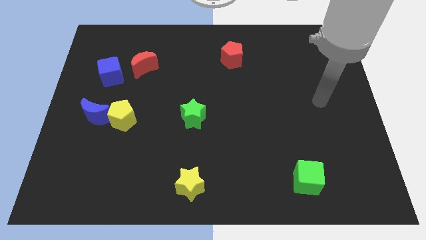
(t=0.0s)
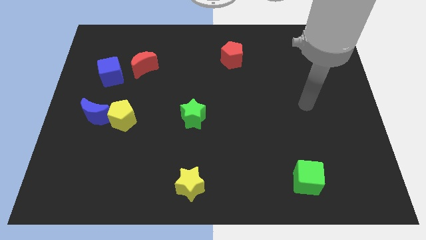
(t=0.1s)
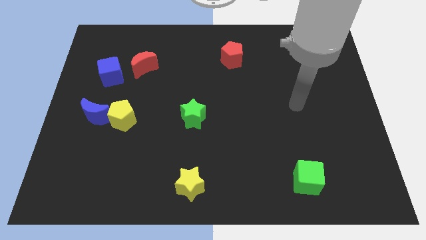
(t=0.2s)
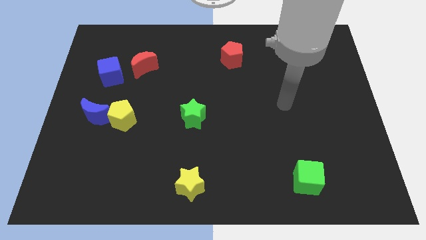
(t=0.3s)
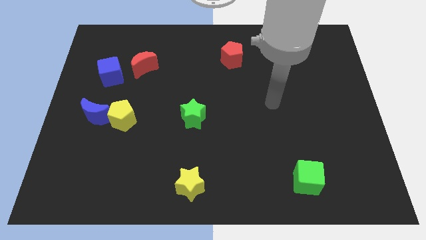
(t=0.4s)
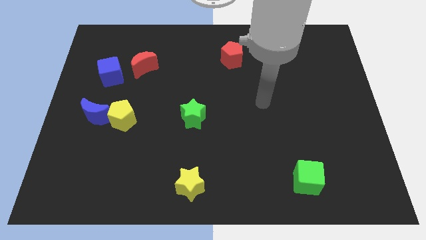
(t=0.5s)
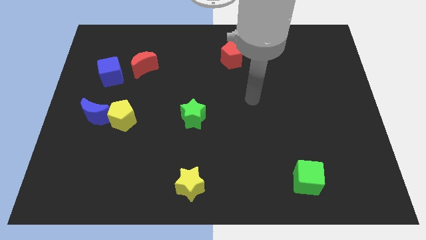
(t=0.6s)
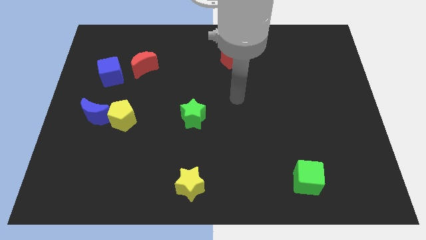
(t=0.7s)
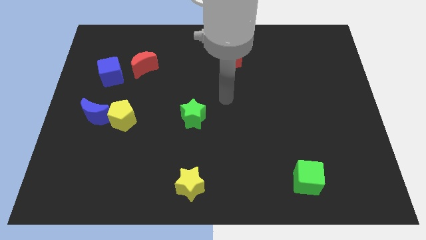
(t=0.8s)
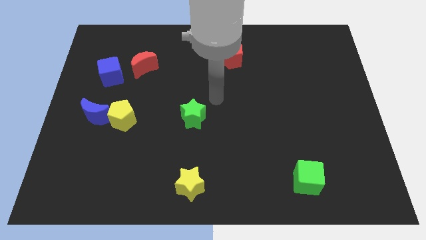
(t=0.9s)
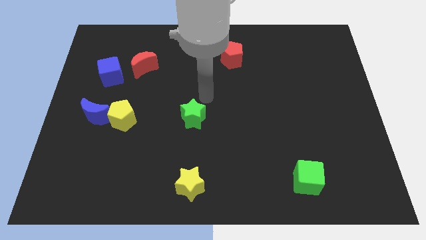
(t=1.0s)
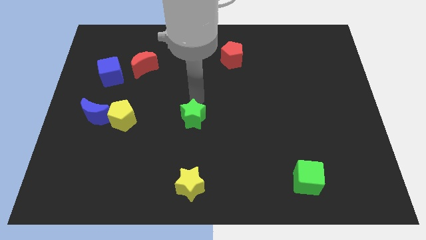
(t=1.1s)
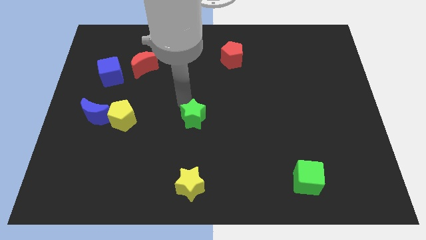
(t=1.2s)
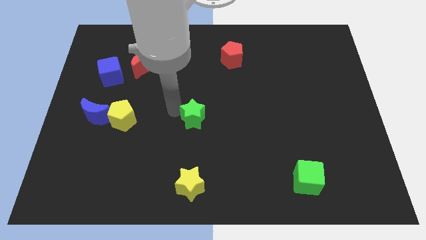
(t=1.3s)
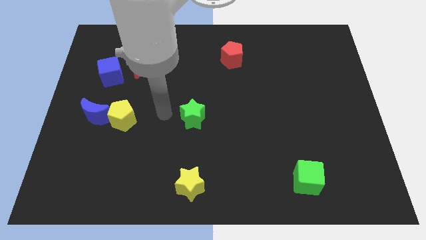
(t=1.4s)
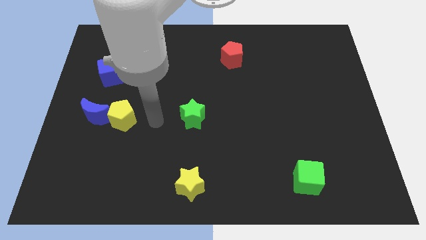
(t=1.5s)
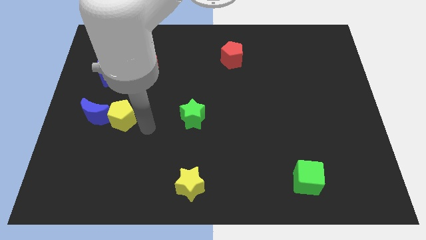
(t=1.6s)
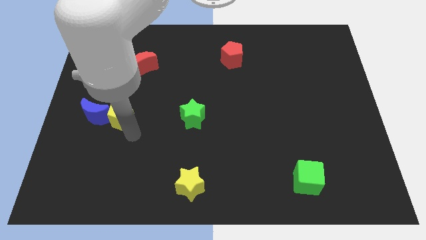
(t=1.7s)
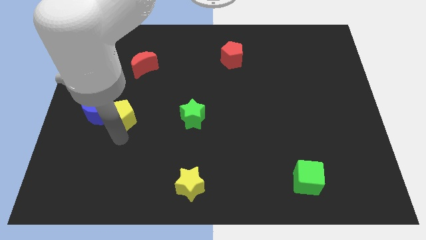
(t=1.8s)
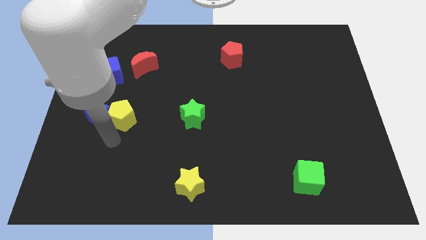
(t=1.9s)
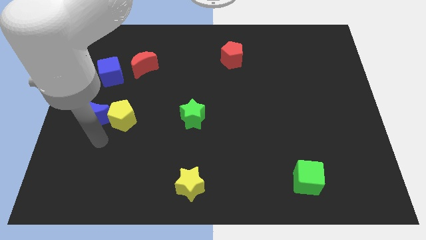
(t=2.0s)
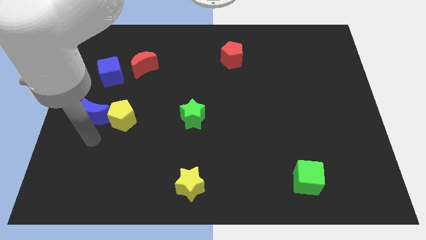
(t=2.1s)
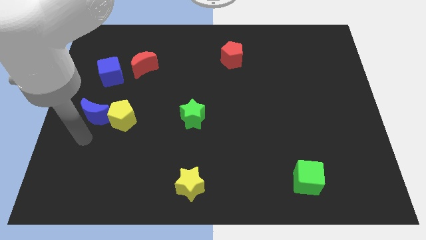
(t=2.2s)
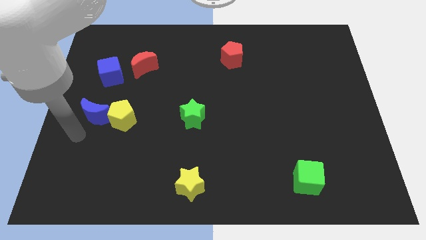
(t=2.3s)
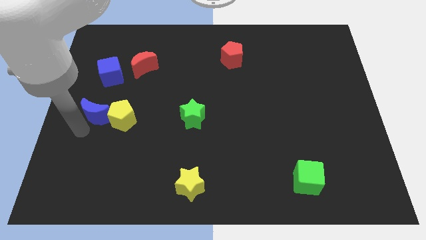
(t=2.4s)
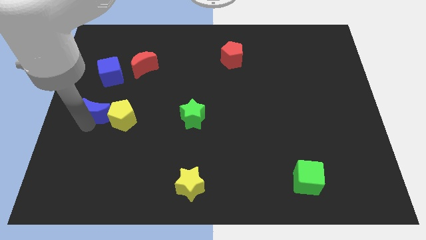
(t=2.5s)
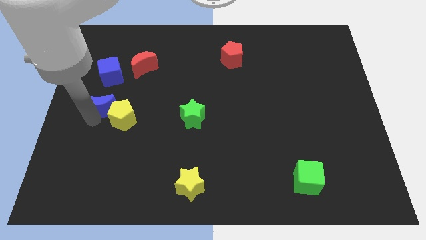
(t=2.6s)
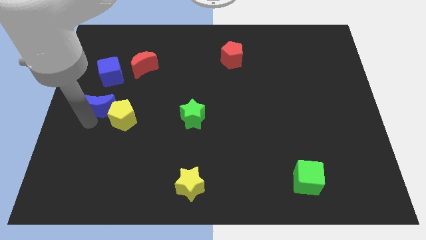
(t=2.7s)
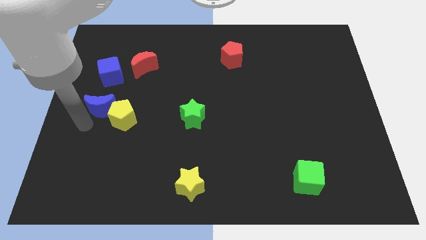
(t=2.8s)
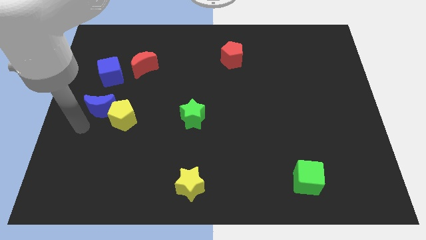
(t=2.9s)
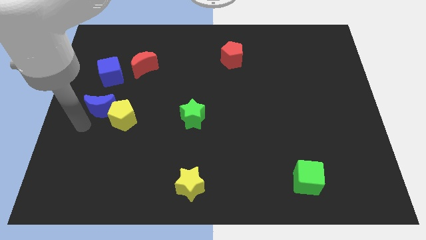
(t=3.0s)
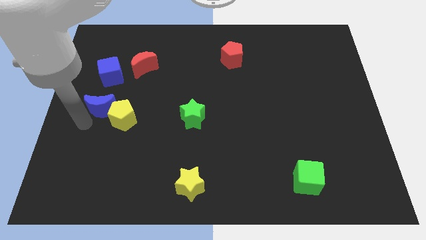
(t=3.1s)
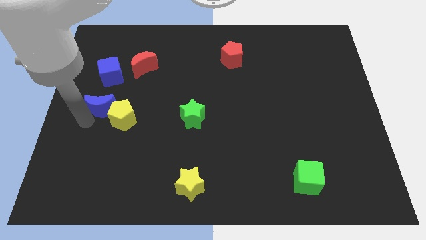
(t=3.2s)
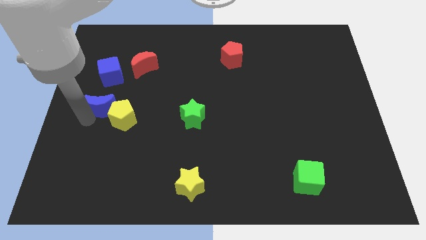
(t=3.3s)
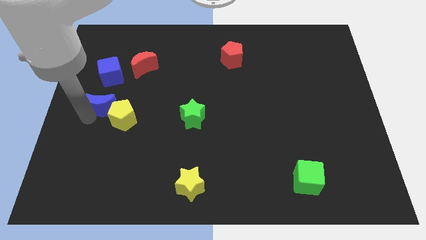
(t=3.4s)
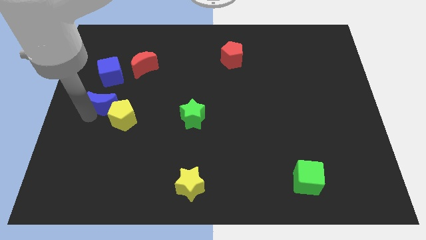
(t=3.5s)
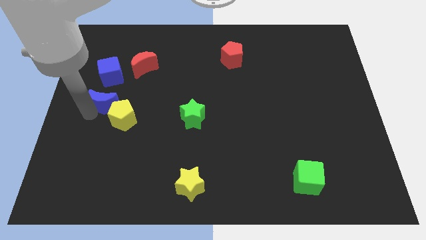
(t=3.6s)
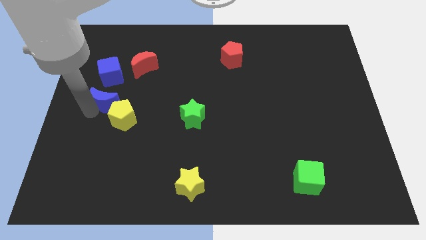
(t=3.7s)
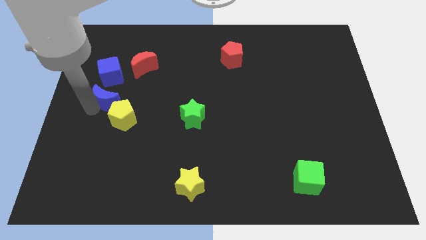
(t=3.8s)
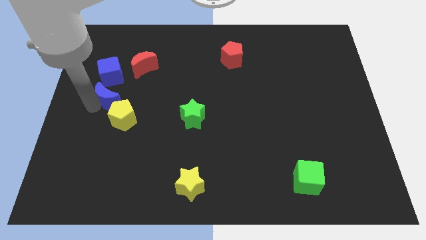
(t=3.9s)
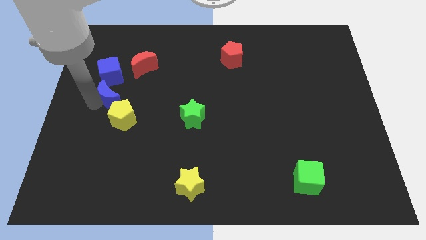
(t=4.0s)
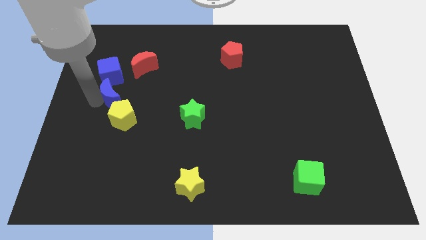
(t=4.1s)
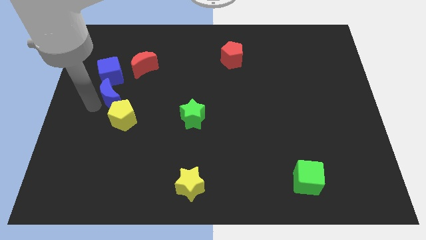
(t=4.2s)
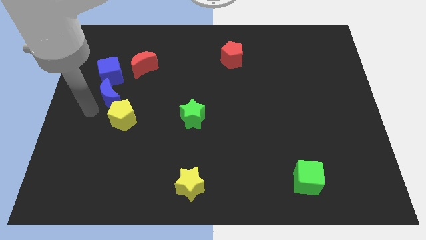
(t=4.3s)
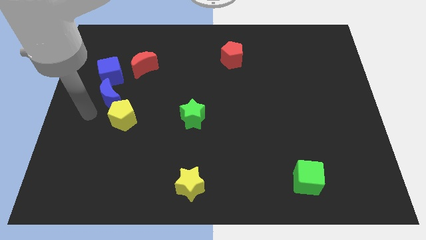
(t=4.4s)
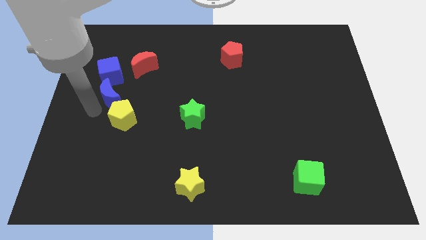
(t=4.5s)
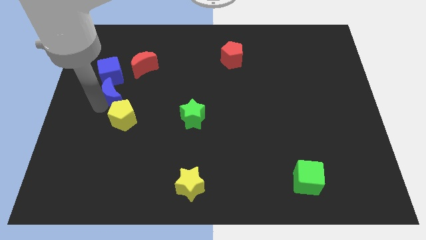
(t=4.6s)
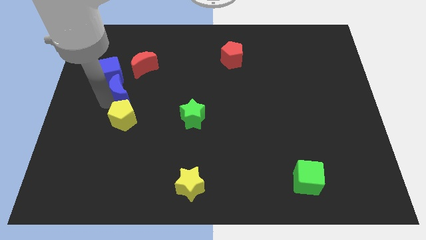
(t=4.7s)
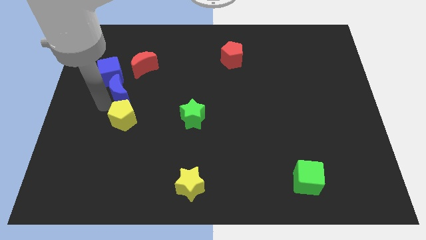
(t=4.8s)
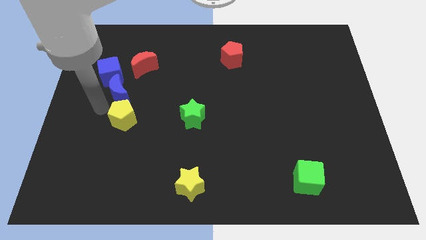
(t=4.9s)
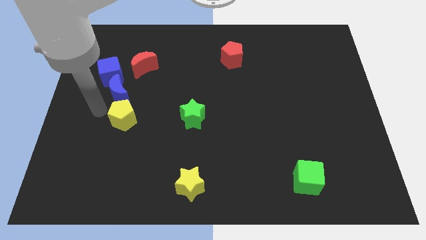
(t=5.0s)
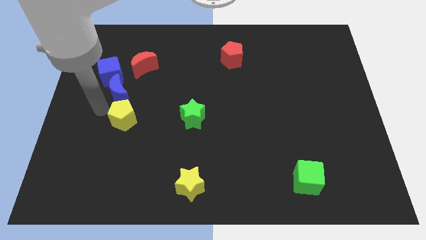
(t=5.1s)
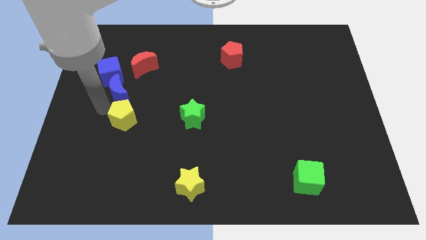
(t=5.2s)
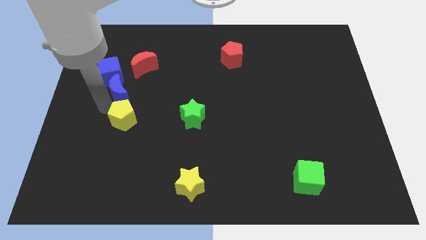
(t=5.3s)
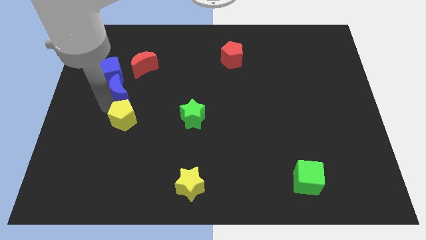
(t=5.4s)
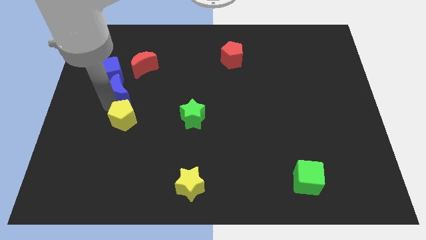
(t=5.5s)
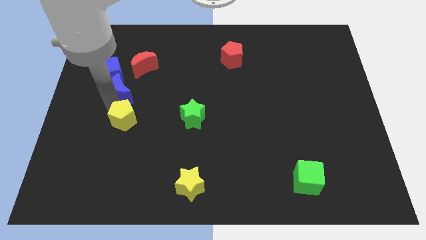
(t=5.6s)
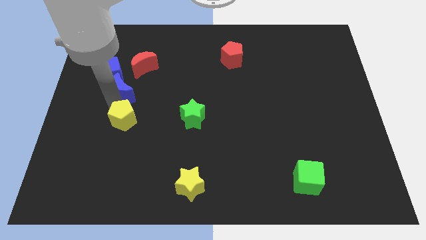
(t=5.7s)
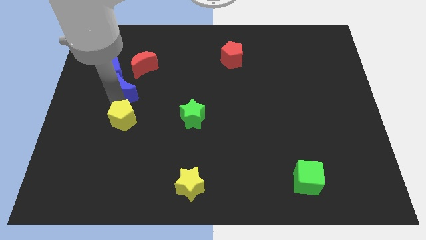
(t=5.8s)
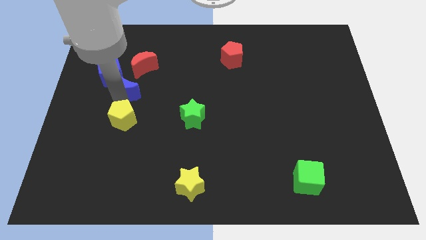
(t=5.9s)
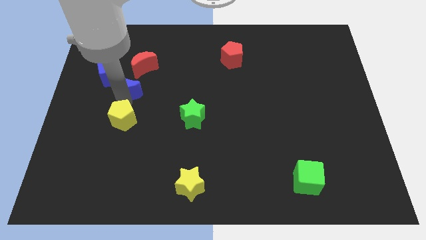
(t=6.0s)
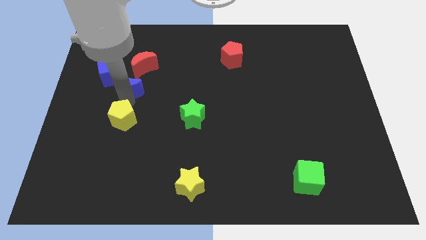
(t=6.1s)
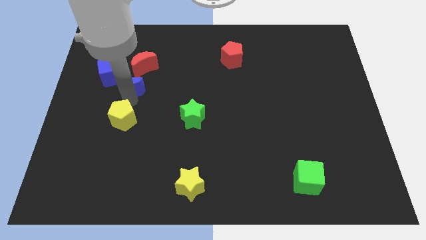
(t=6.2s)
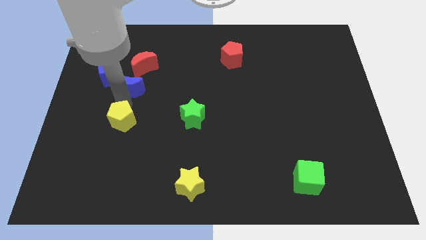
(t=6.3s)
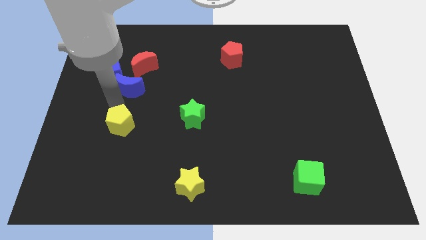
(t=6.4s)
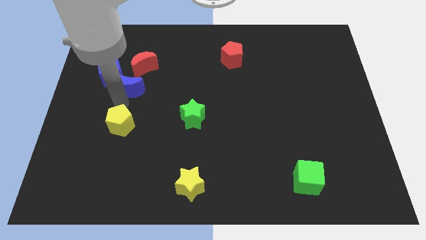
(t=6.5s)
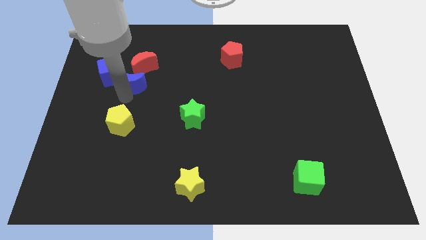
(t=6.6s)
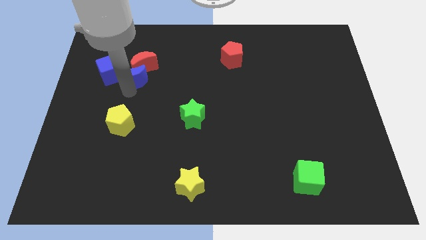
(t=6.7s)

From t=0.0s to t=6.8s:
push the blue moon close to the red moon

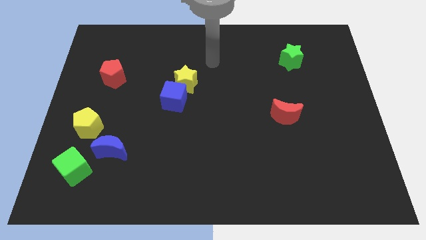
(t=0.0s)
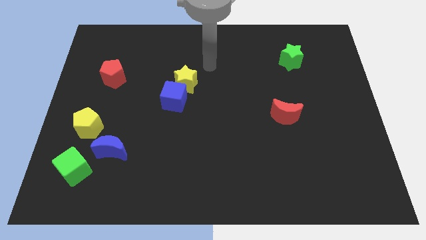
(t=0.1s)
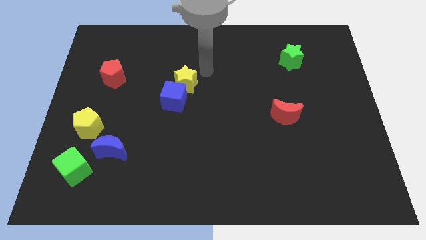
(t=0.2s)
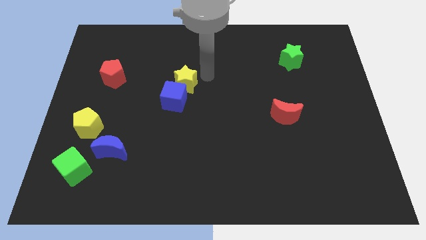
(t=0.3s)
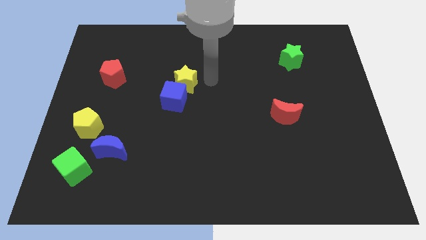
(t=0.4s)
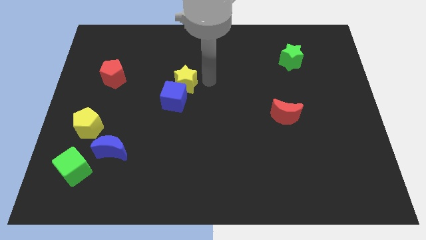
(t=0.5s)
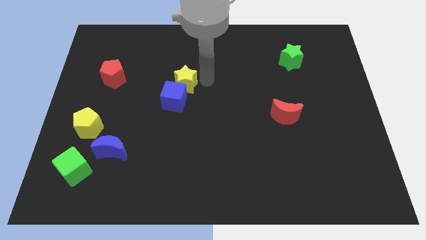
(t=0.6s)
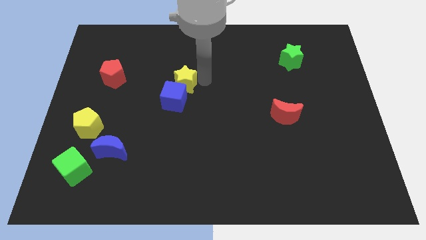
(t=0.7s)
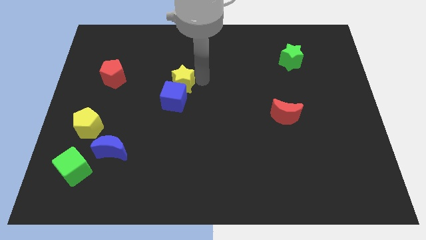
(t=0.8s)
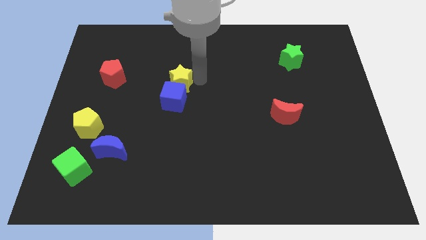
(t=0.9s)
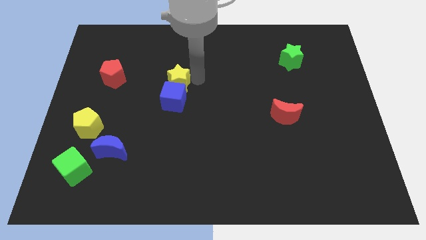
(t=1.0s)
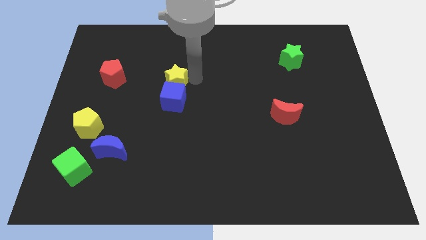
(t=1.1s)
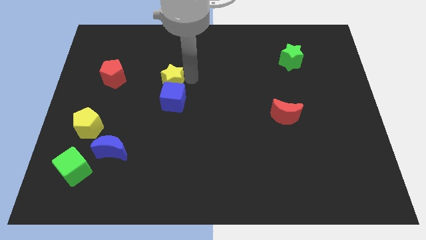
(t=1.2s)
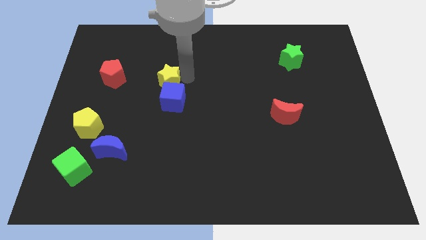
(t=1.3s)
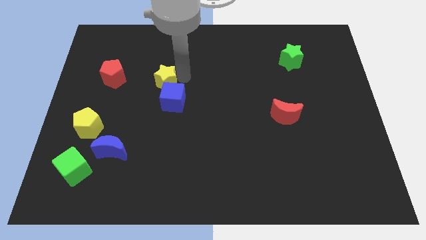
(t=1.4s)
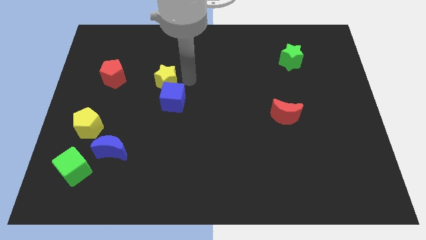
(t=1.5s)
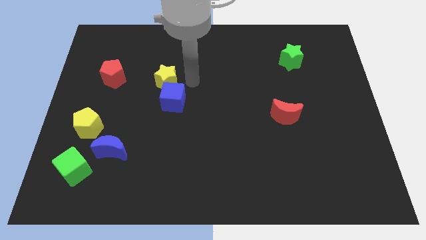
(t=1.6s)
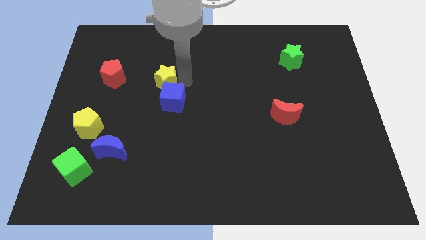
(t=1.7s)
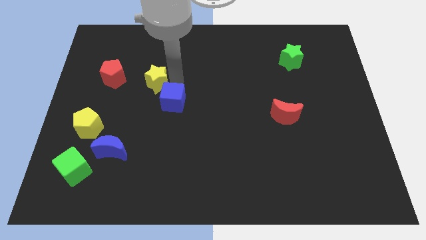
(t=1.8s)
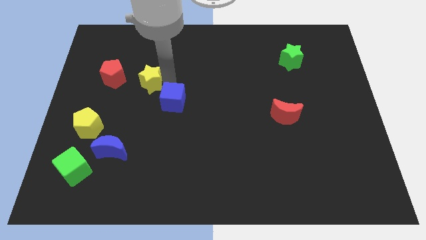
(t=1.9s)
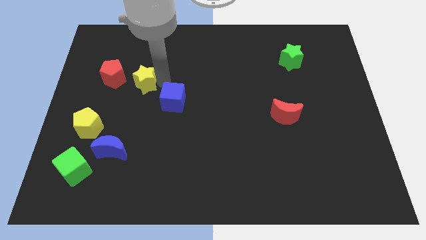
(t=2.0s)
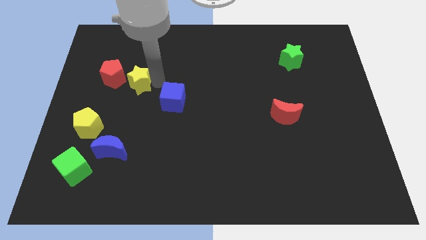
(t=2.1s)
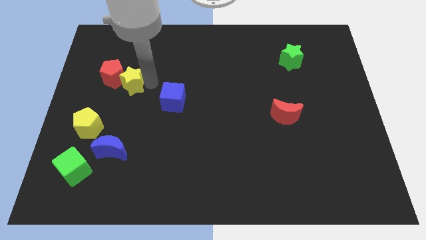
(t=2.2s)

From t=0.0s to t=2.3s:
push the yellow star to the red pentagon
